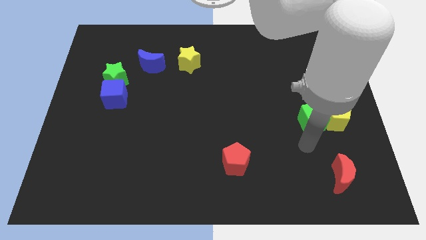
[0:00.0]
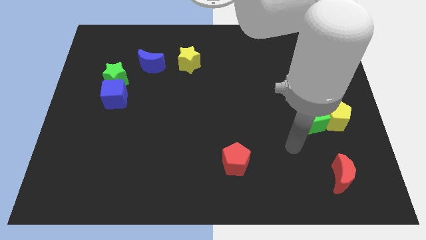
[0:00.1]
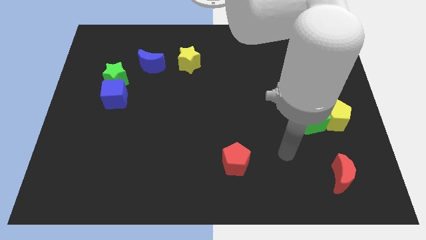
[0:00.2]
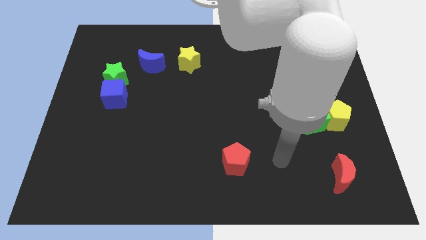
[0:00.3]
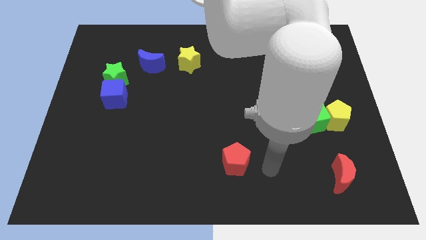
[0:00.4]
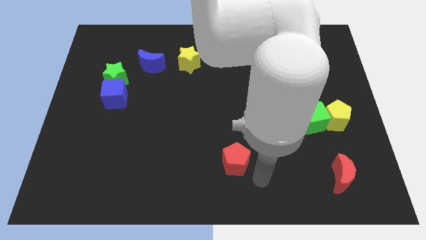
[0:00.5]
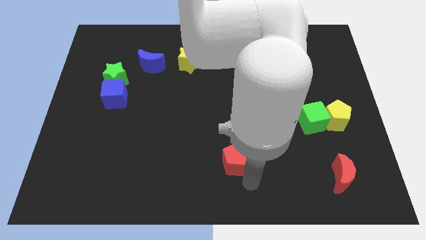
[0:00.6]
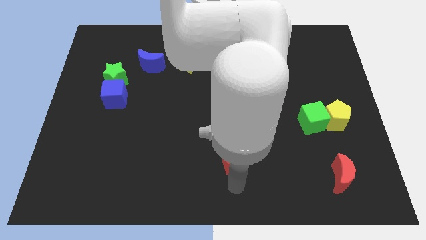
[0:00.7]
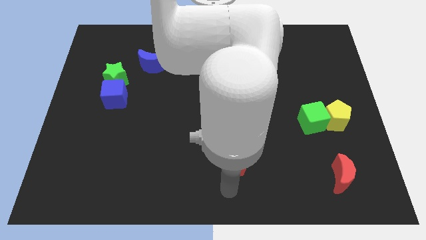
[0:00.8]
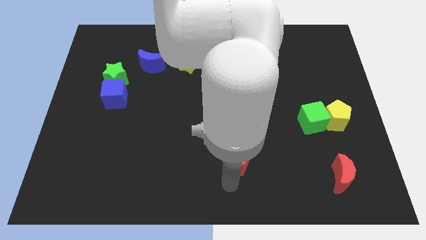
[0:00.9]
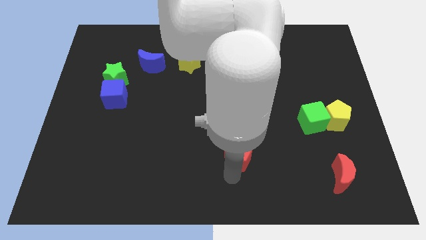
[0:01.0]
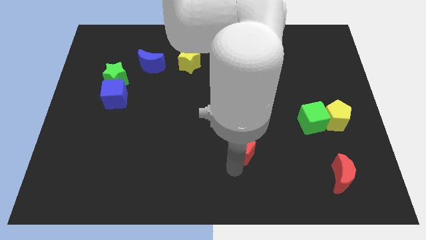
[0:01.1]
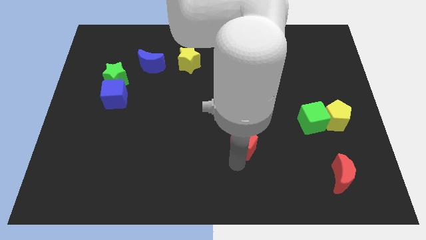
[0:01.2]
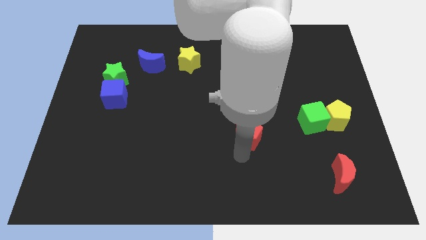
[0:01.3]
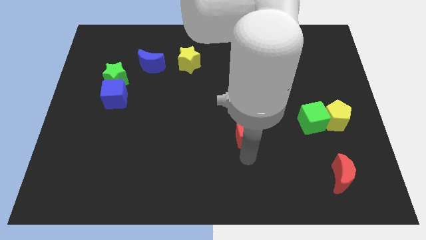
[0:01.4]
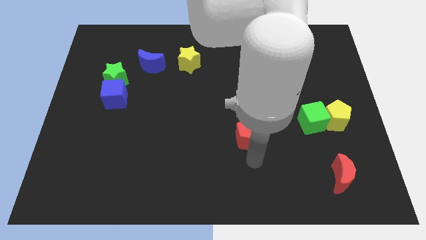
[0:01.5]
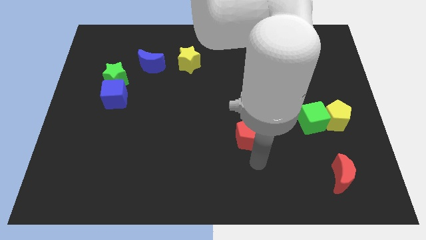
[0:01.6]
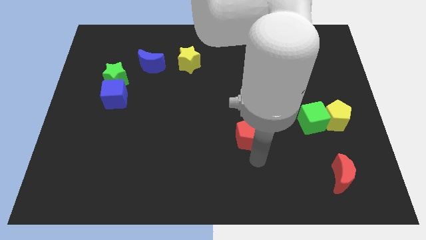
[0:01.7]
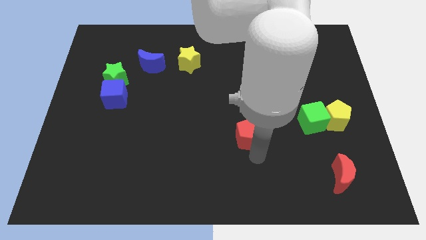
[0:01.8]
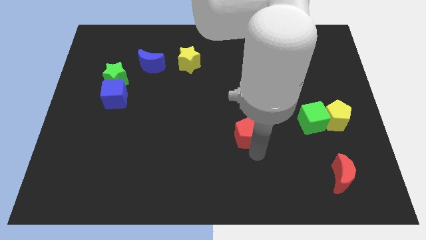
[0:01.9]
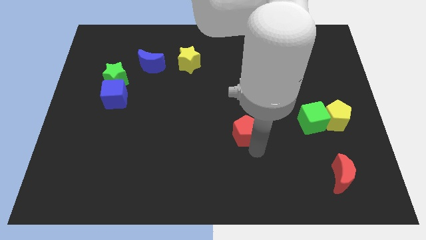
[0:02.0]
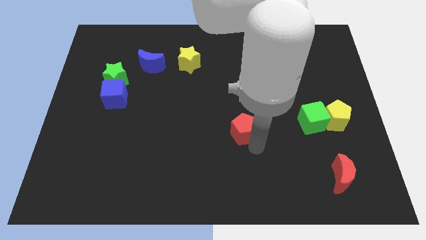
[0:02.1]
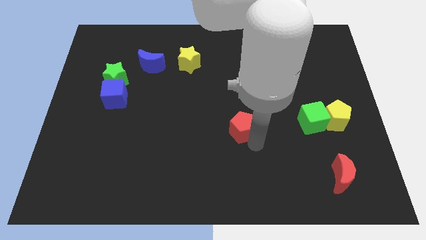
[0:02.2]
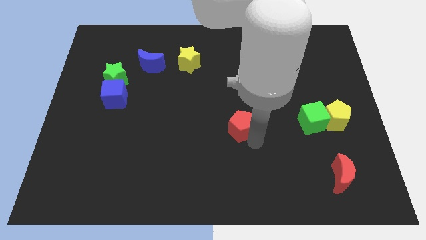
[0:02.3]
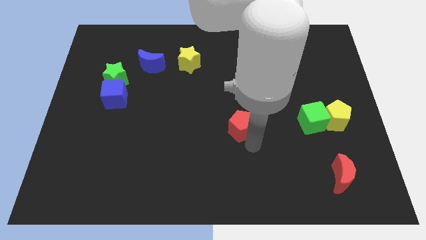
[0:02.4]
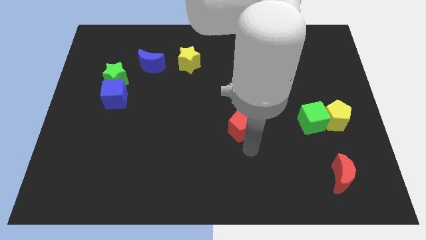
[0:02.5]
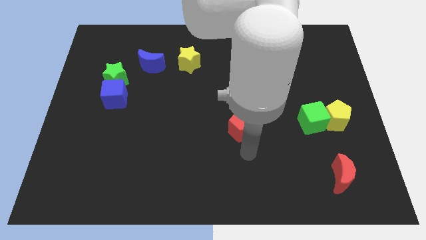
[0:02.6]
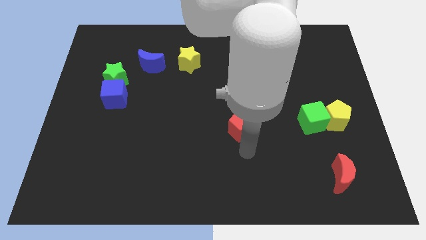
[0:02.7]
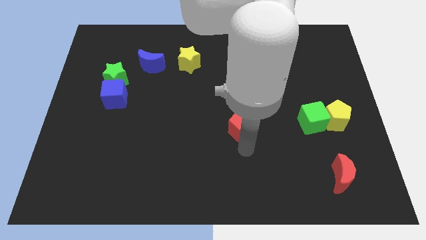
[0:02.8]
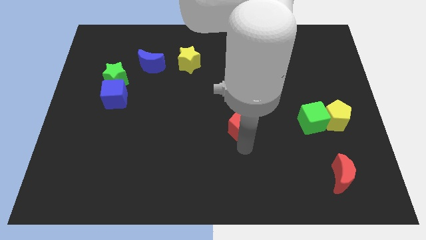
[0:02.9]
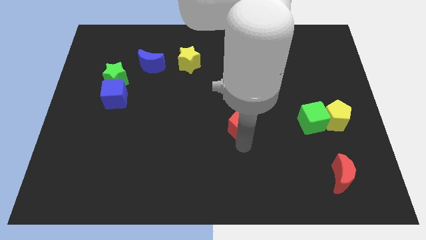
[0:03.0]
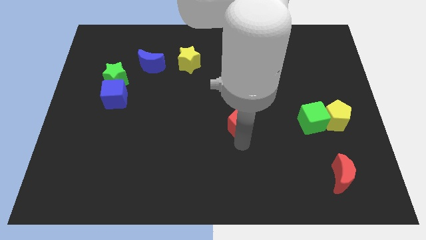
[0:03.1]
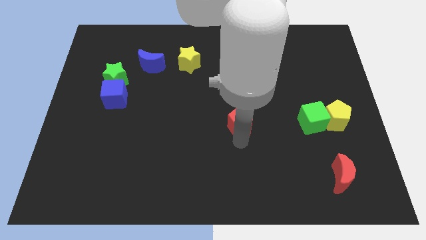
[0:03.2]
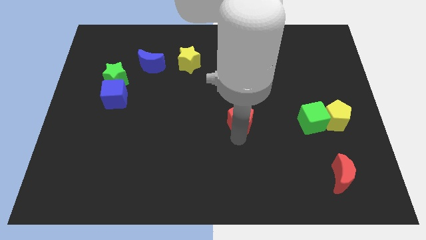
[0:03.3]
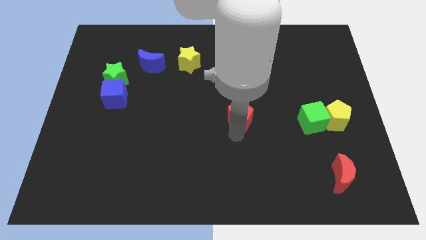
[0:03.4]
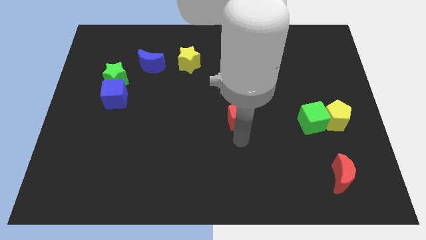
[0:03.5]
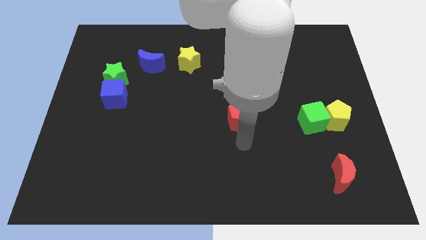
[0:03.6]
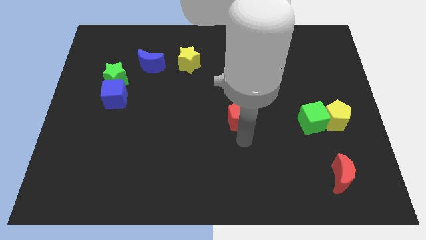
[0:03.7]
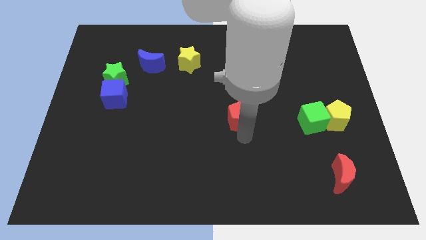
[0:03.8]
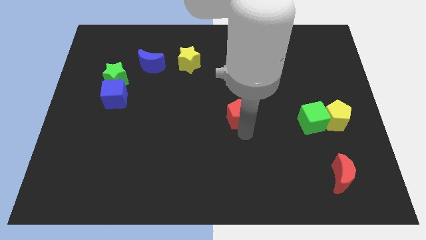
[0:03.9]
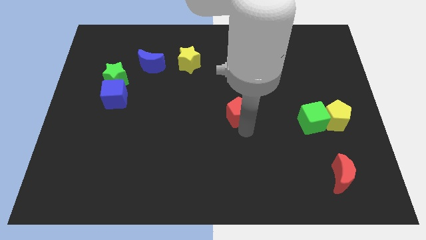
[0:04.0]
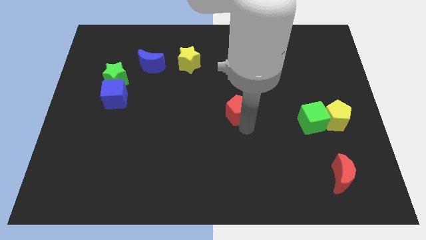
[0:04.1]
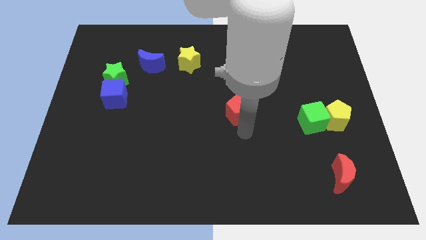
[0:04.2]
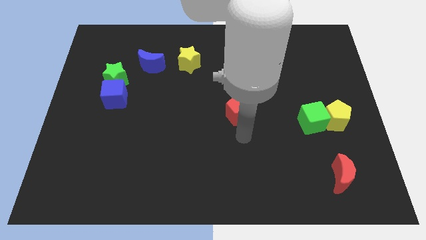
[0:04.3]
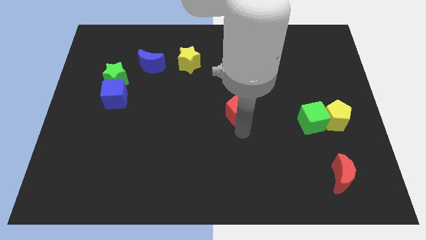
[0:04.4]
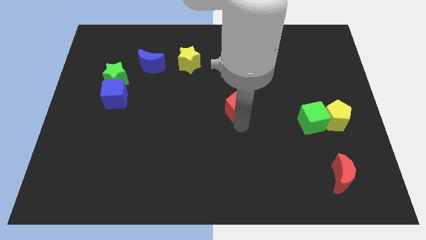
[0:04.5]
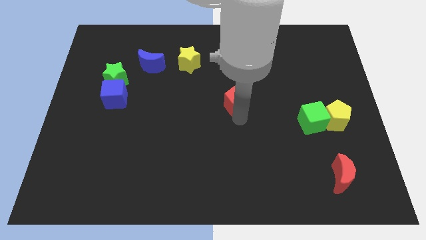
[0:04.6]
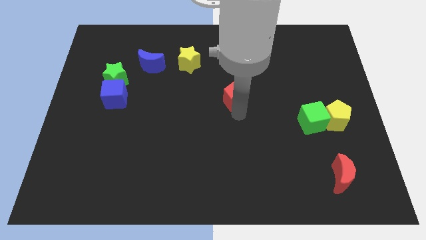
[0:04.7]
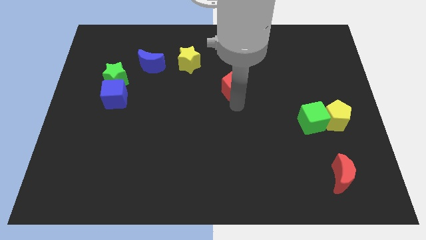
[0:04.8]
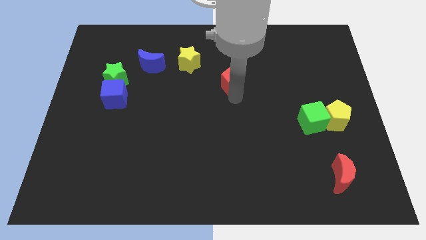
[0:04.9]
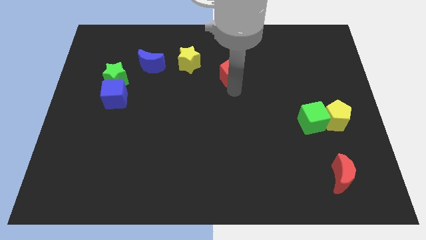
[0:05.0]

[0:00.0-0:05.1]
push the red pentagon to the right of the yellow star

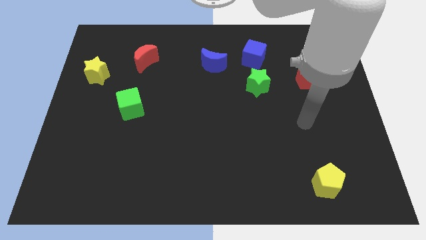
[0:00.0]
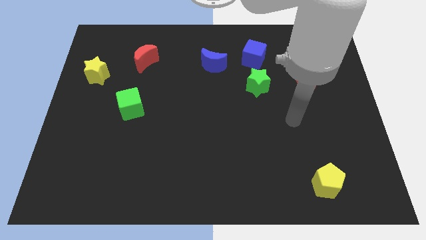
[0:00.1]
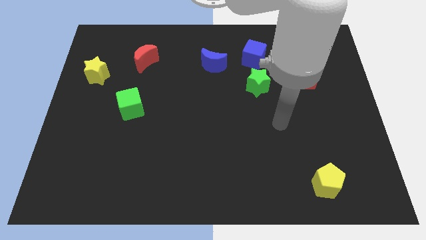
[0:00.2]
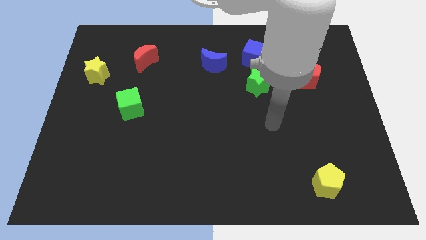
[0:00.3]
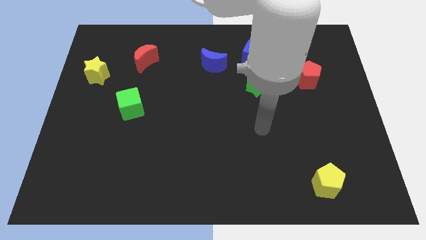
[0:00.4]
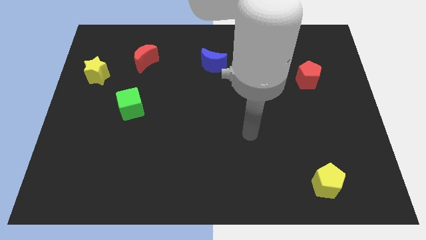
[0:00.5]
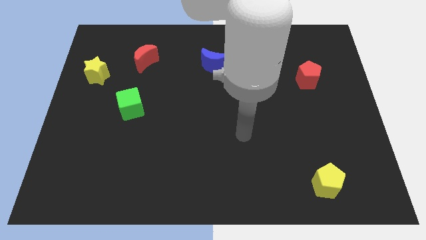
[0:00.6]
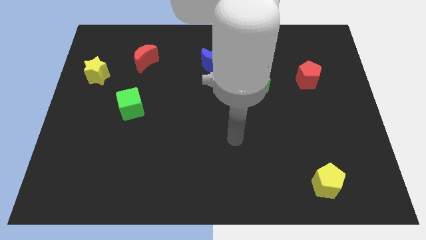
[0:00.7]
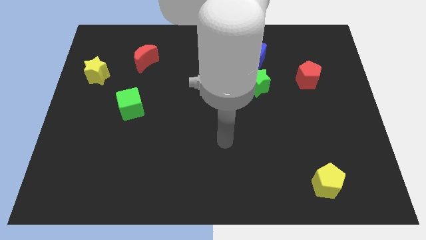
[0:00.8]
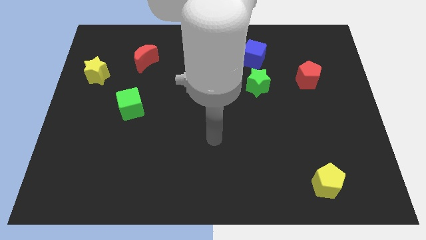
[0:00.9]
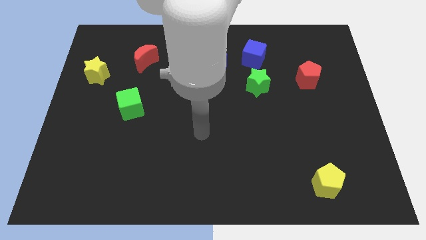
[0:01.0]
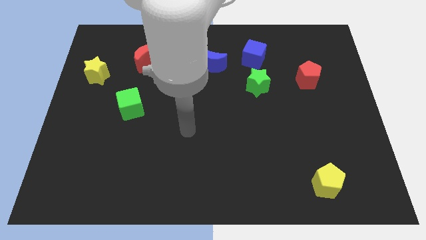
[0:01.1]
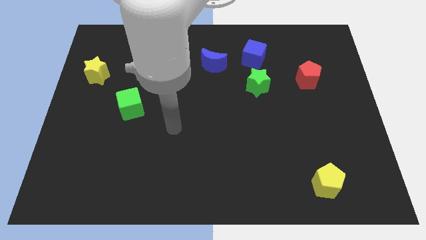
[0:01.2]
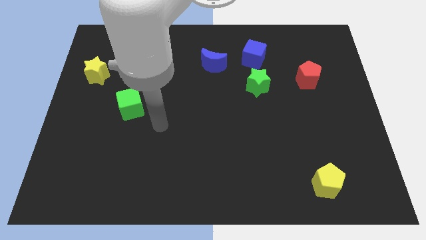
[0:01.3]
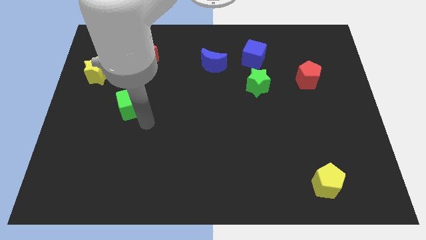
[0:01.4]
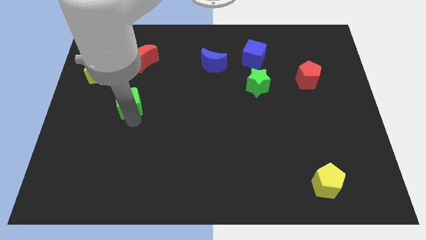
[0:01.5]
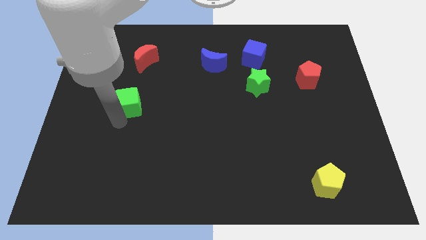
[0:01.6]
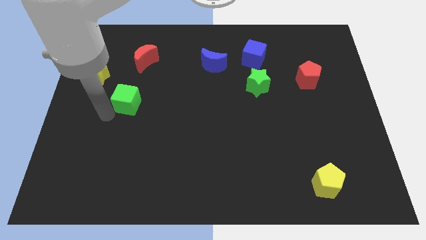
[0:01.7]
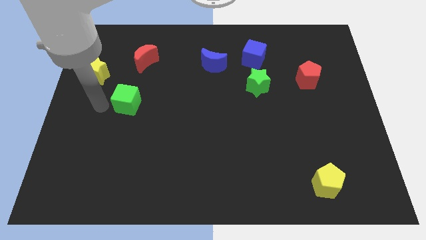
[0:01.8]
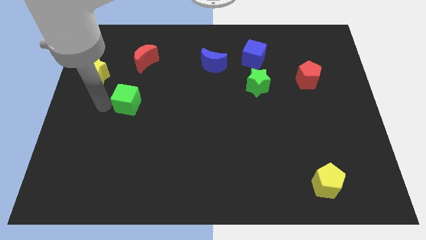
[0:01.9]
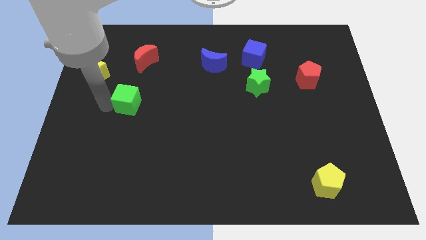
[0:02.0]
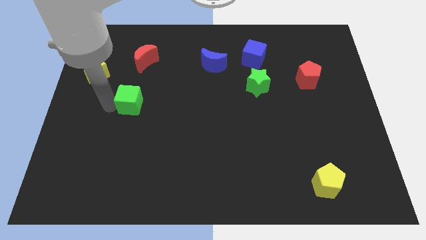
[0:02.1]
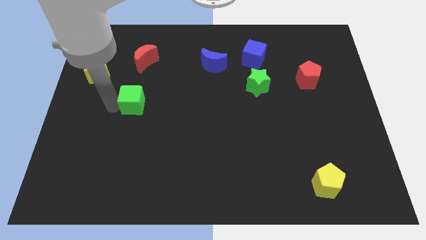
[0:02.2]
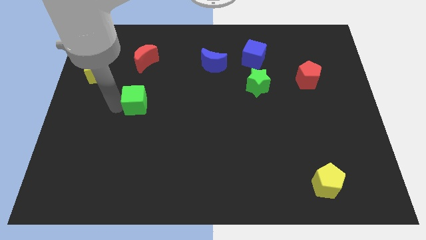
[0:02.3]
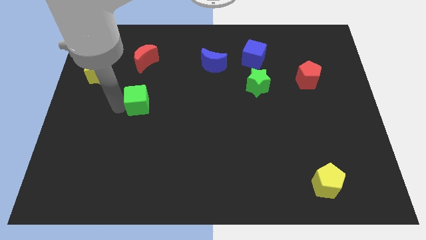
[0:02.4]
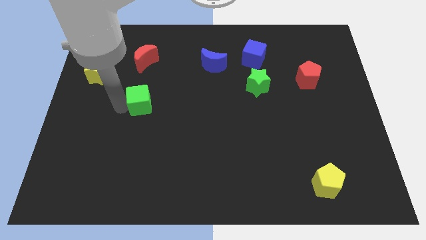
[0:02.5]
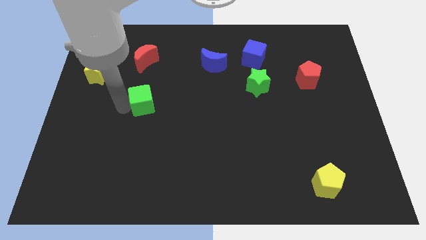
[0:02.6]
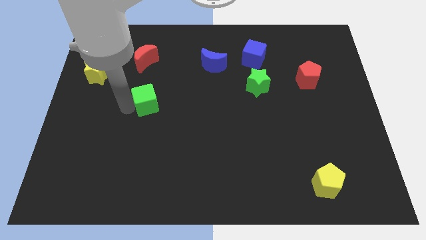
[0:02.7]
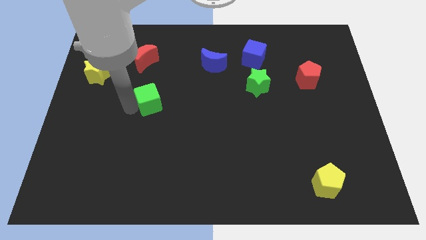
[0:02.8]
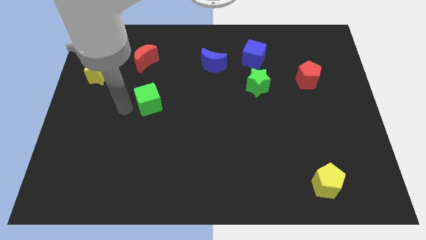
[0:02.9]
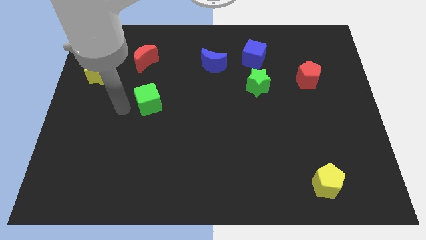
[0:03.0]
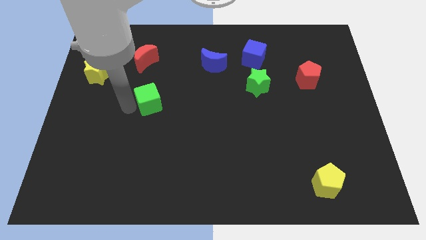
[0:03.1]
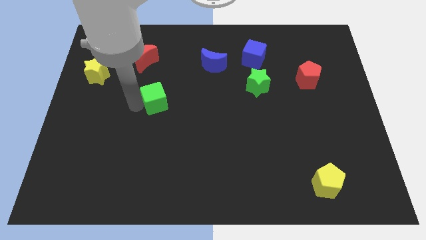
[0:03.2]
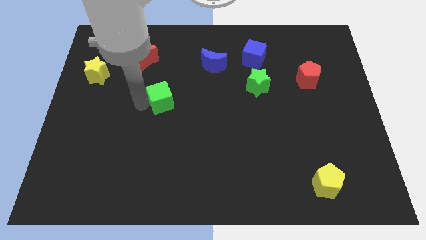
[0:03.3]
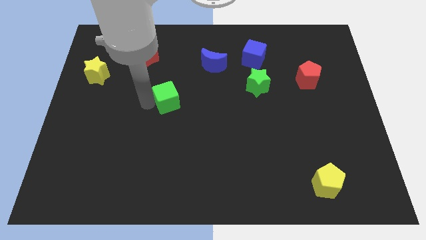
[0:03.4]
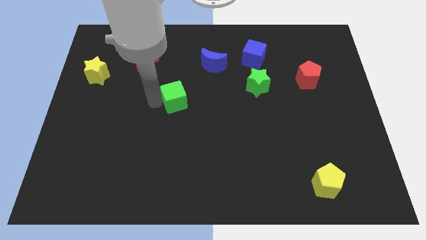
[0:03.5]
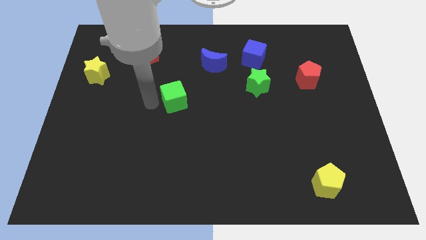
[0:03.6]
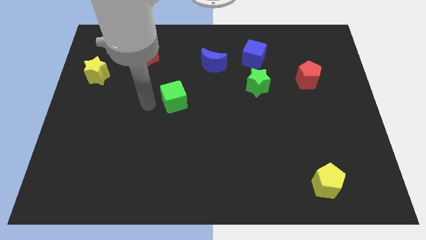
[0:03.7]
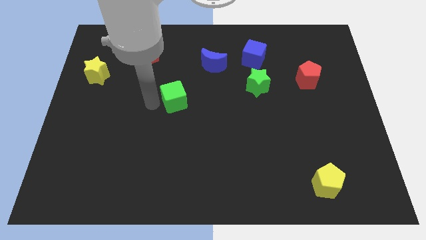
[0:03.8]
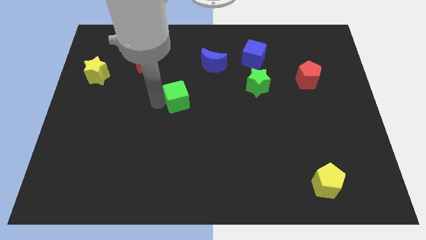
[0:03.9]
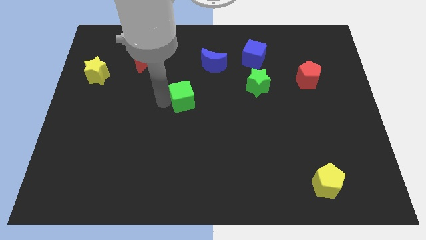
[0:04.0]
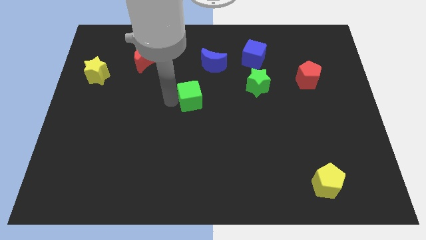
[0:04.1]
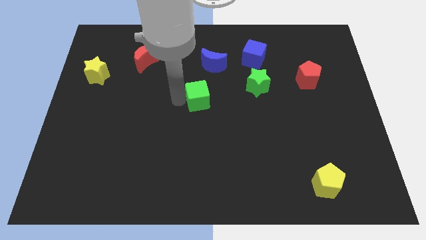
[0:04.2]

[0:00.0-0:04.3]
slide the green cube below the blue moon
